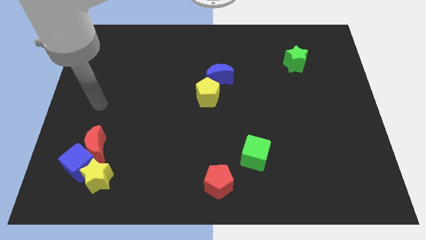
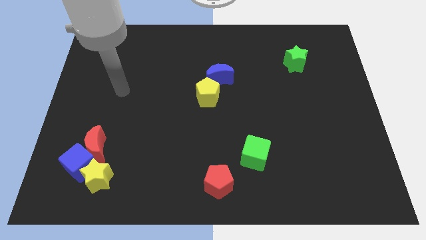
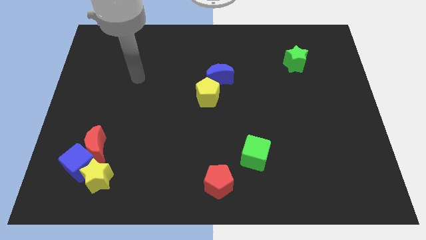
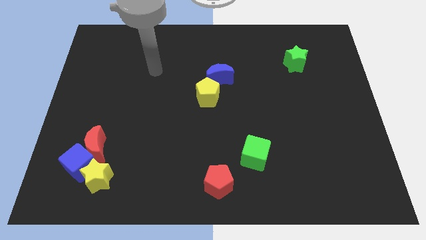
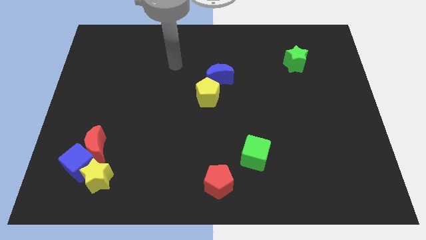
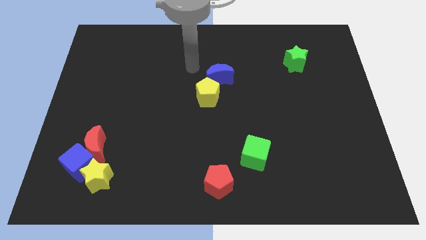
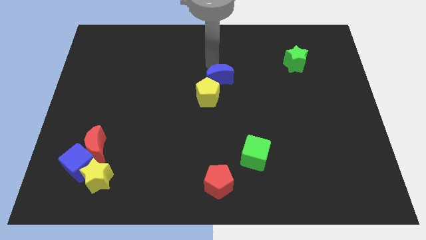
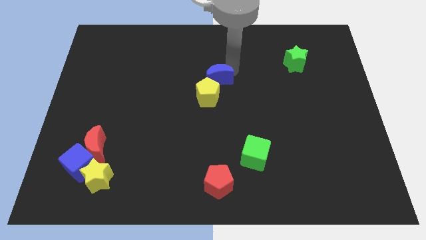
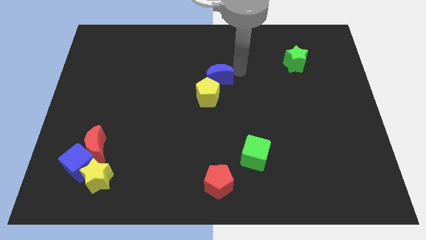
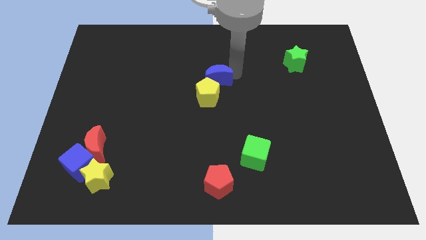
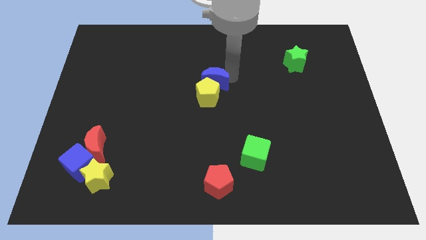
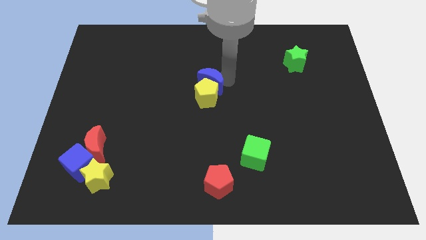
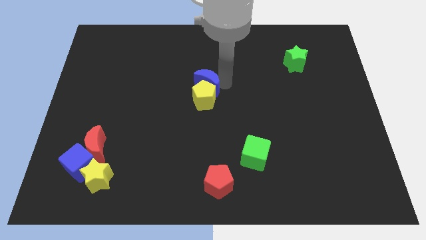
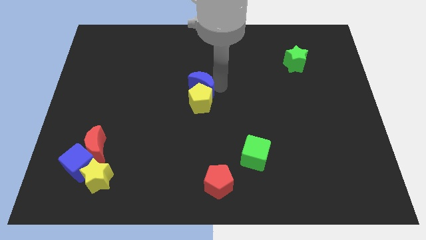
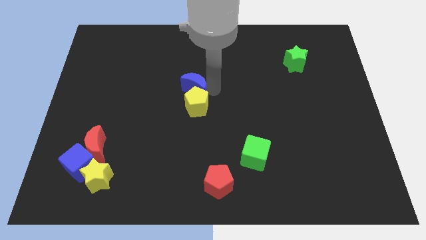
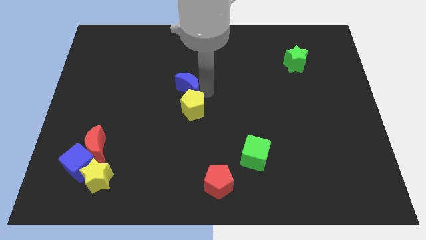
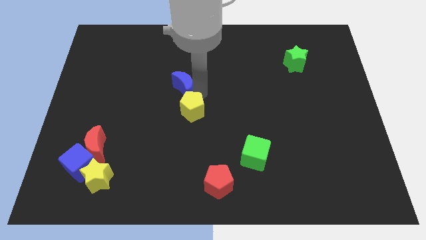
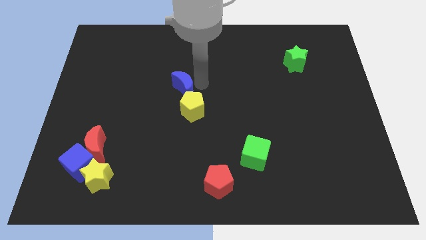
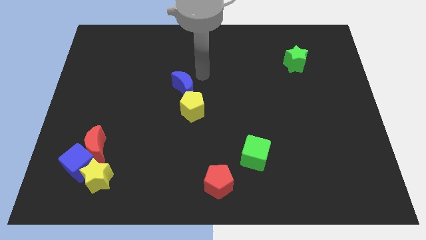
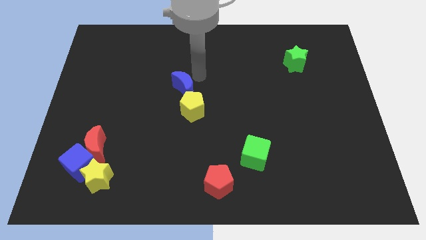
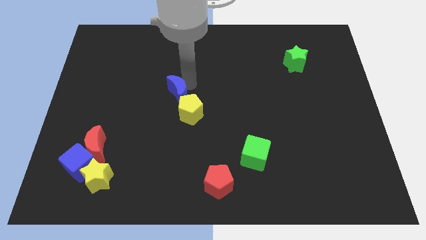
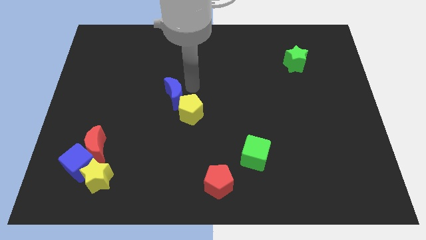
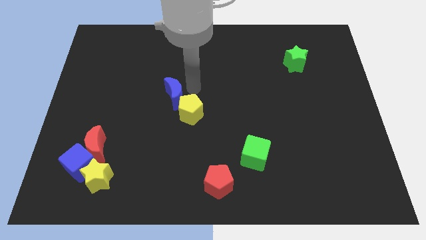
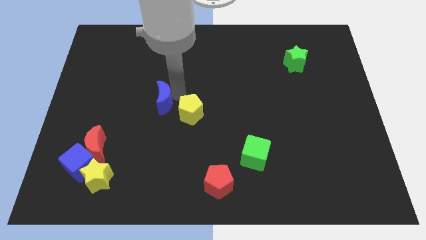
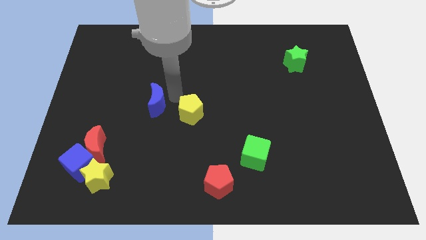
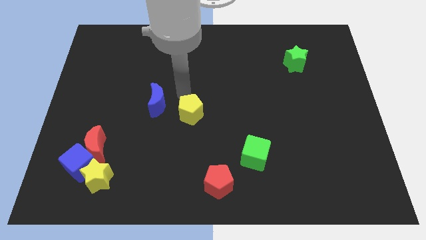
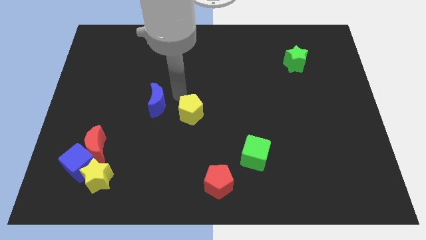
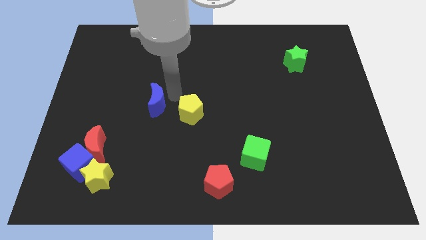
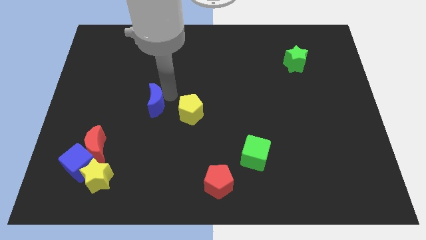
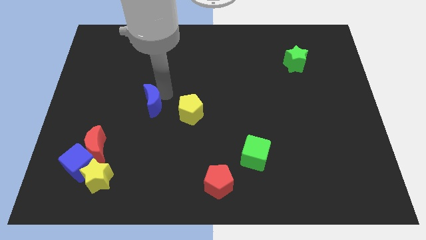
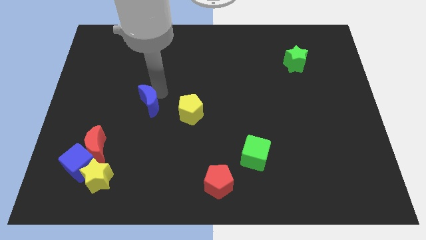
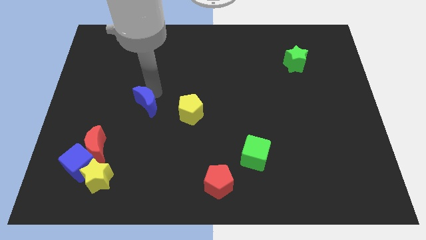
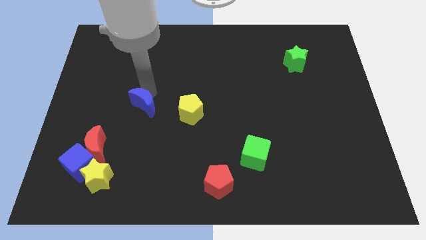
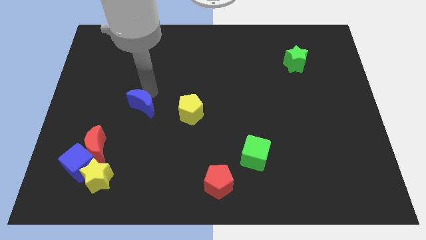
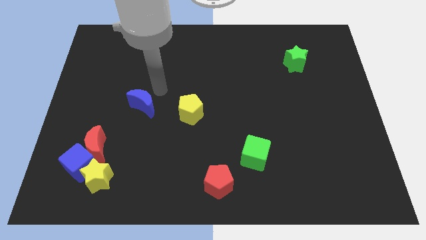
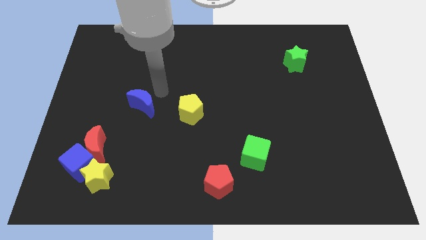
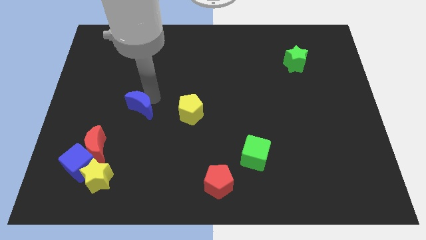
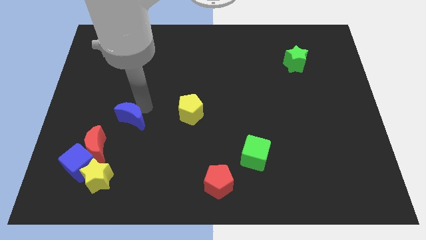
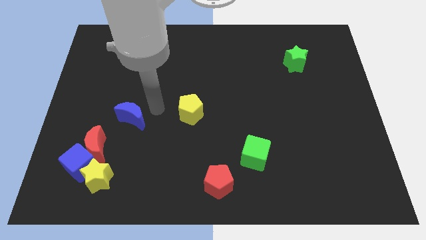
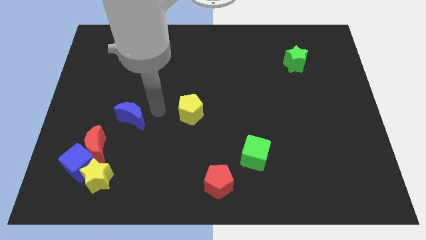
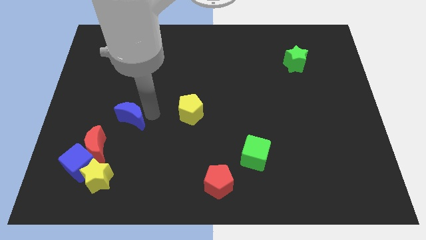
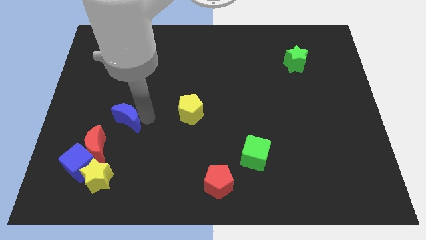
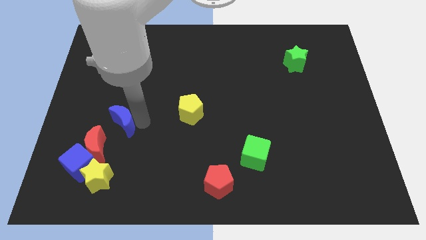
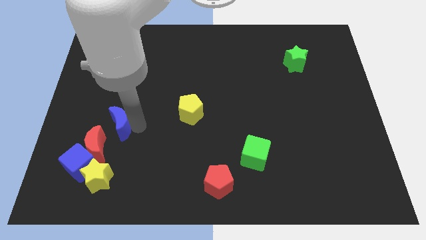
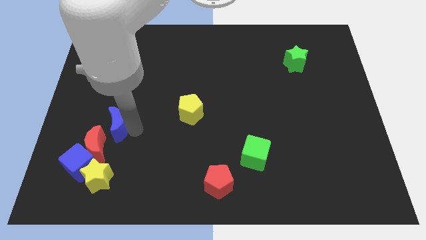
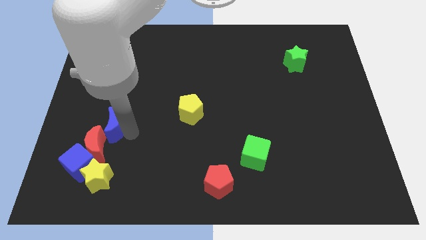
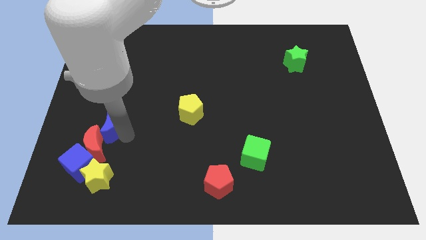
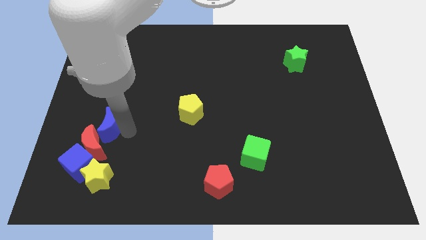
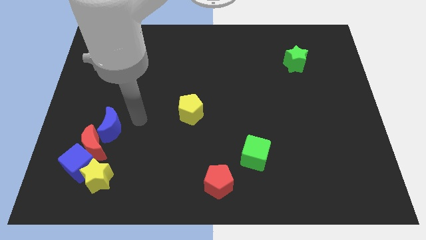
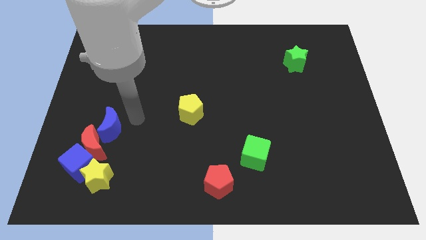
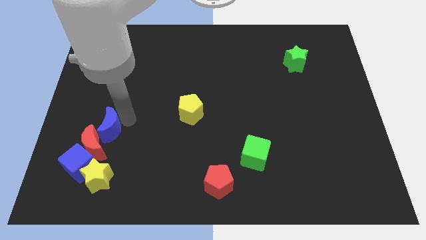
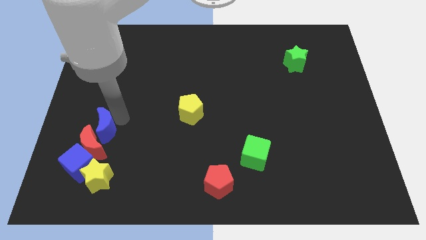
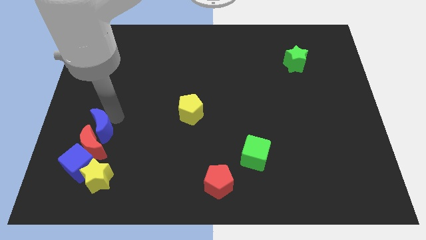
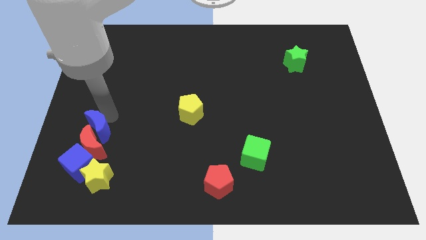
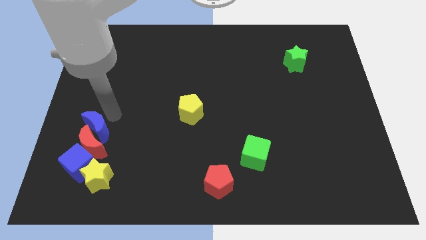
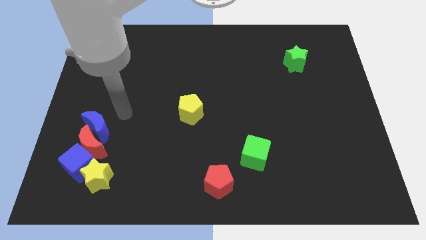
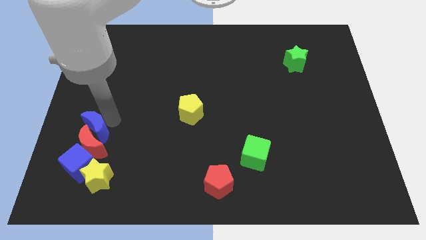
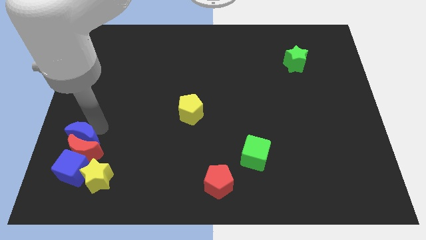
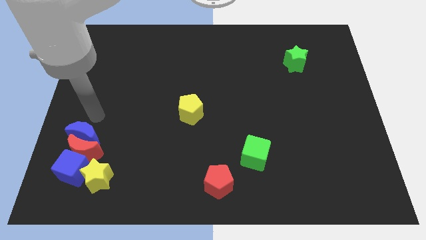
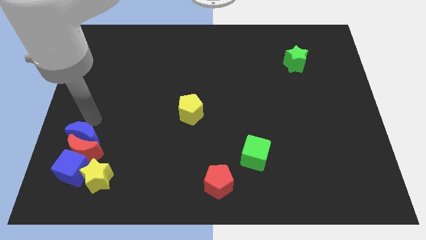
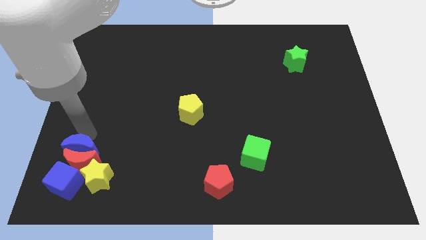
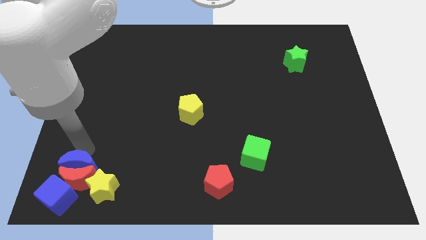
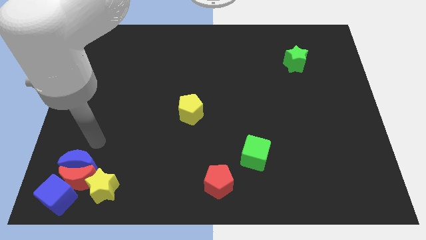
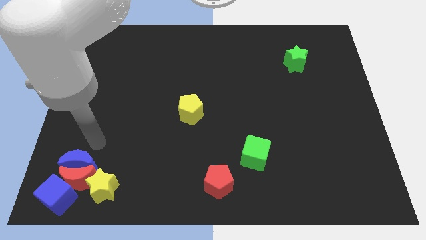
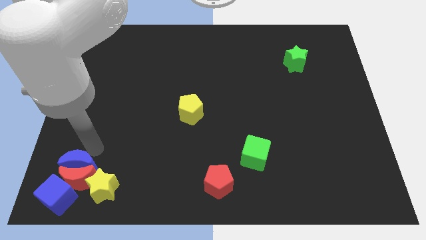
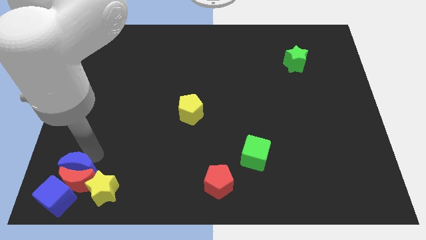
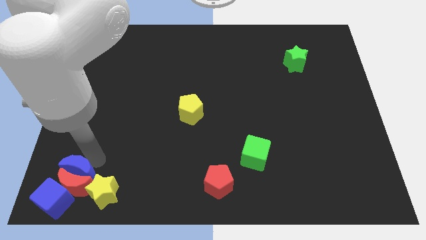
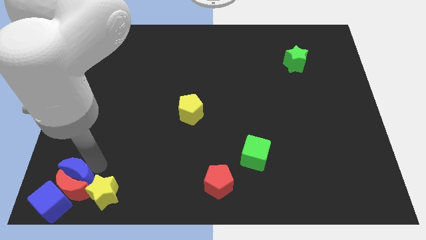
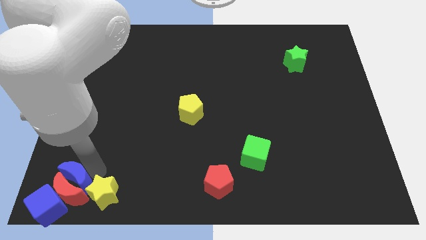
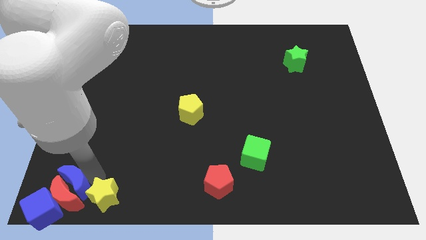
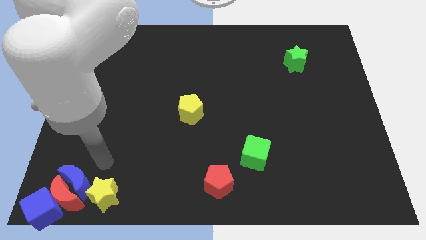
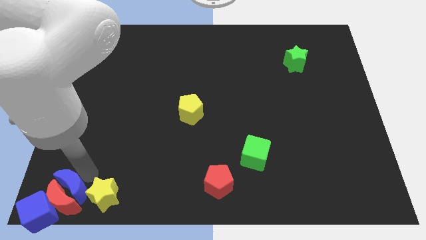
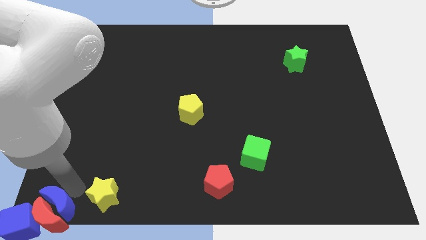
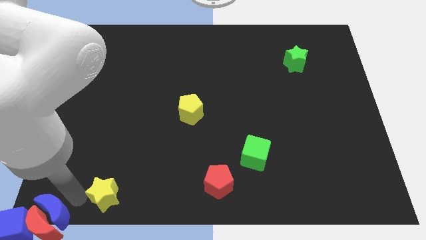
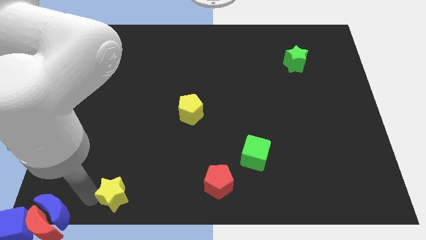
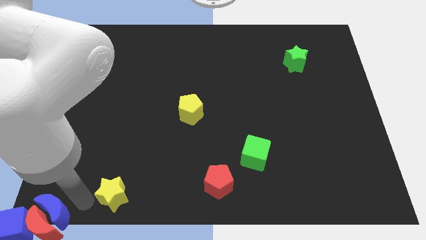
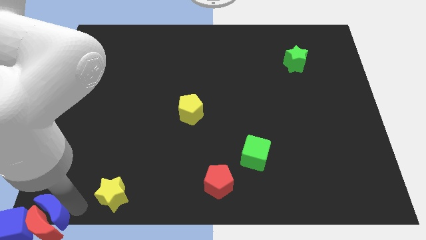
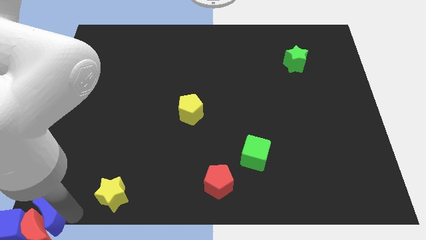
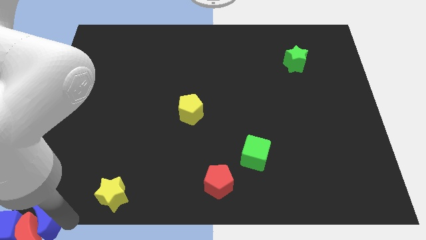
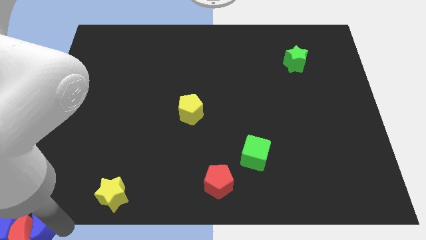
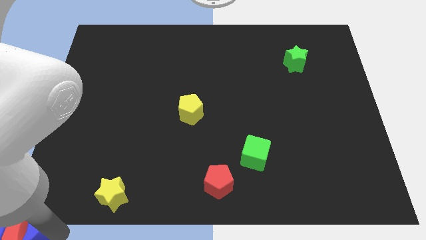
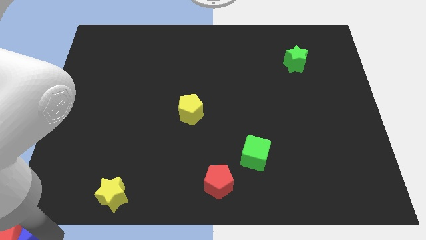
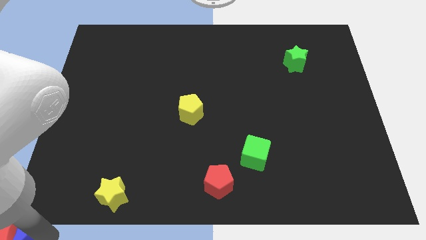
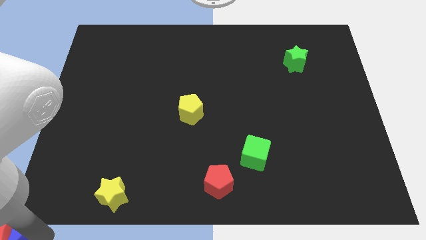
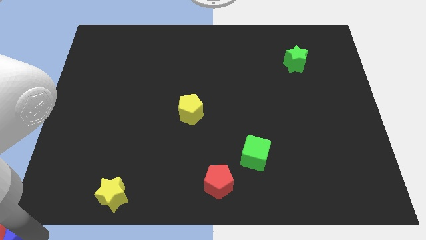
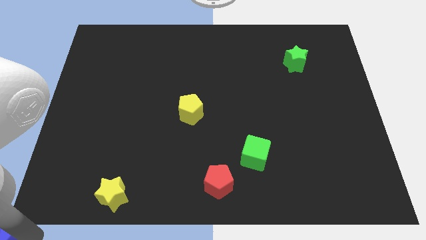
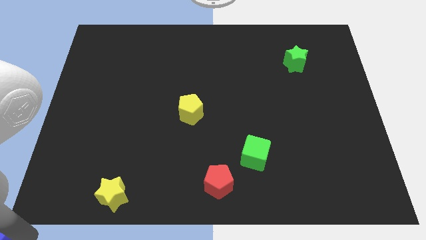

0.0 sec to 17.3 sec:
move the blue moon close to the blue cube
